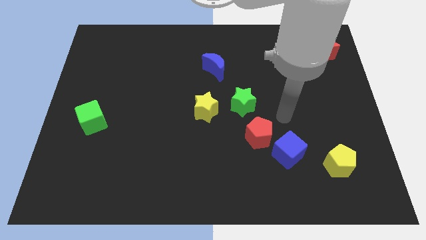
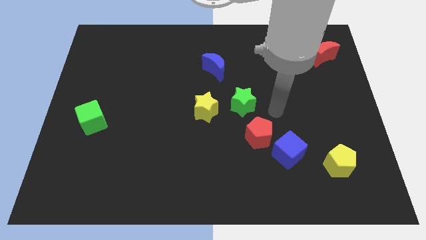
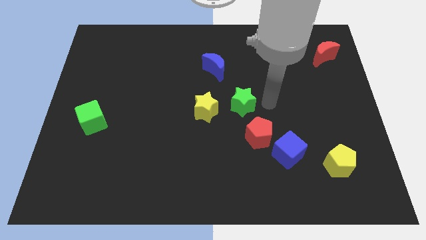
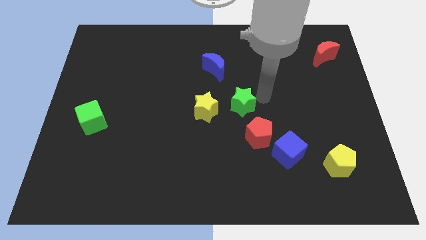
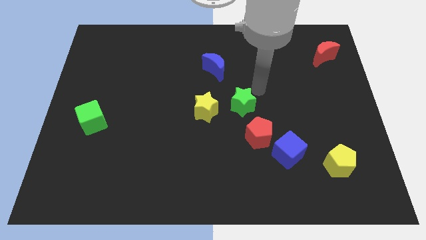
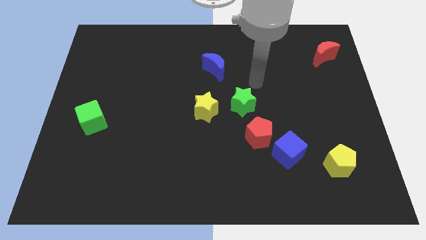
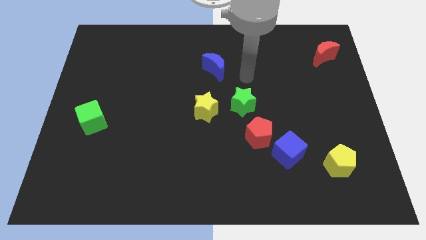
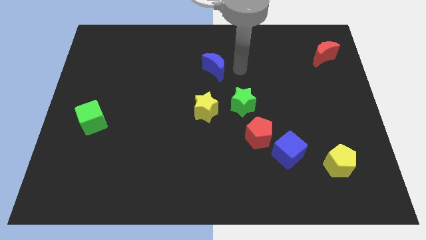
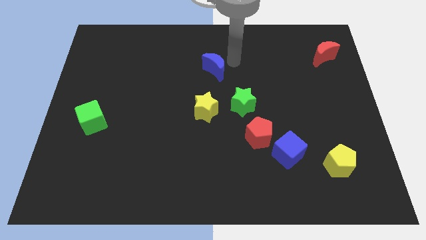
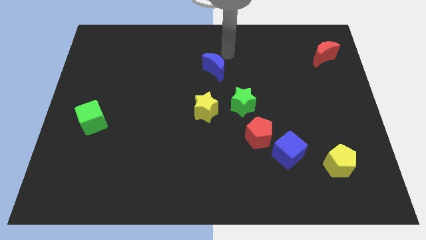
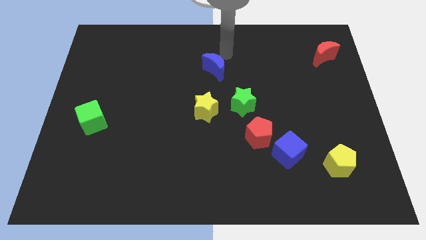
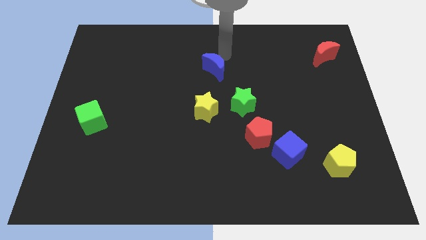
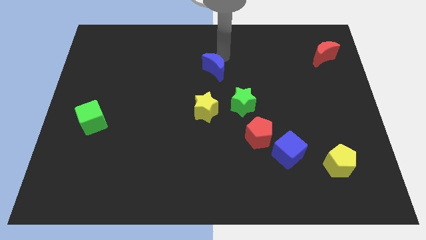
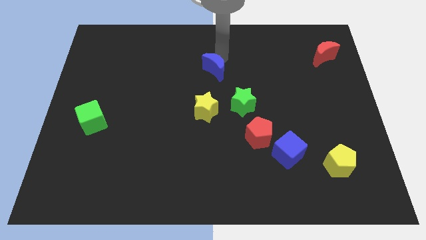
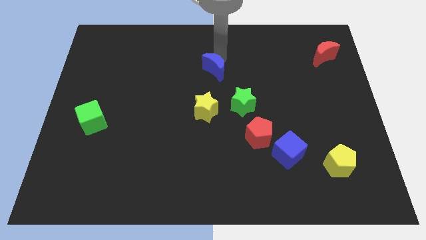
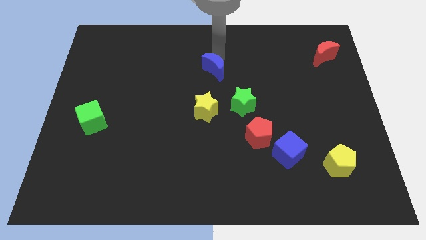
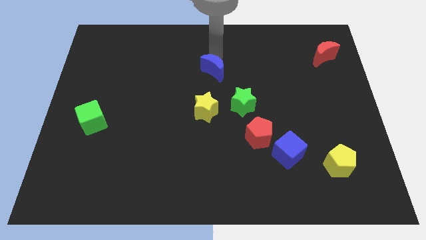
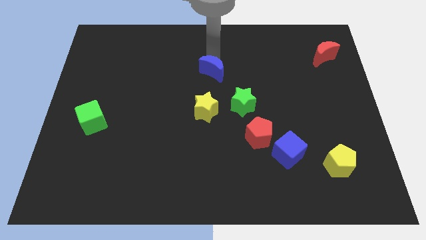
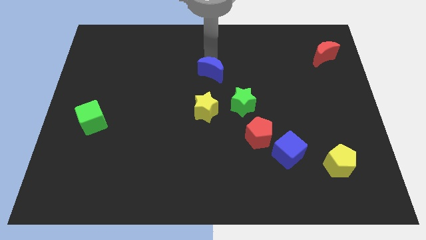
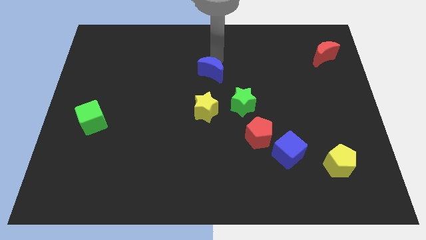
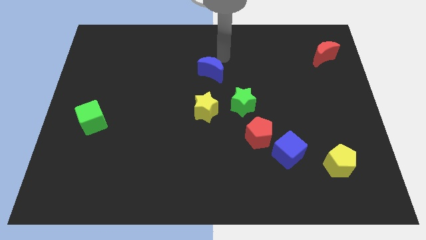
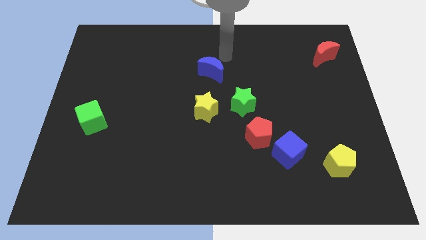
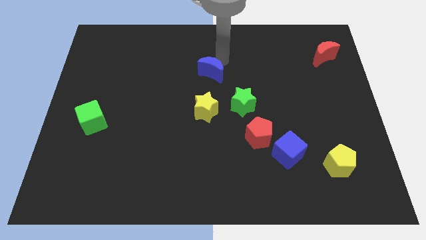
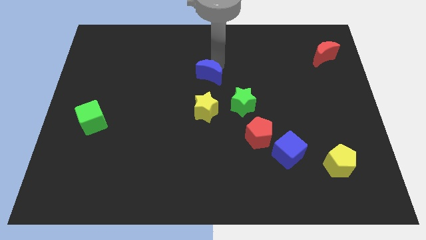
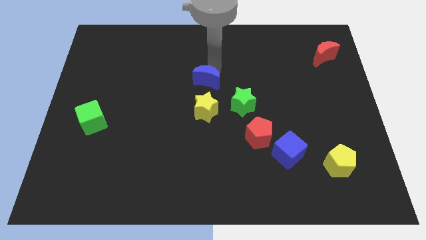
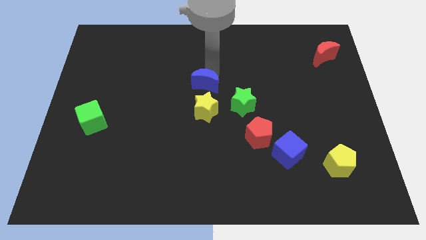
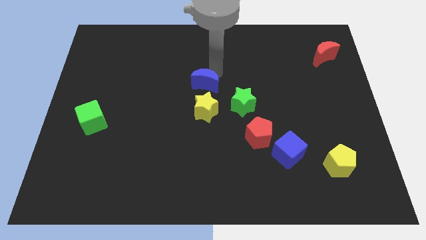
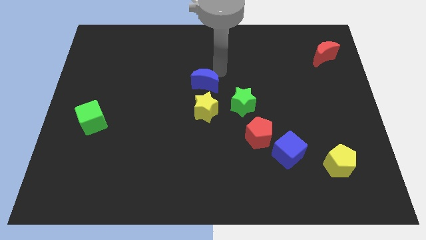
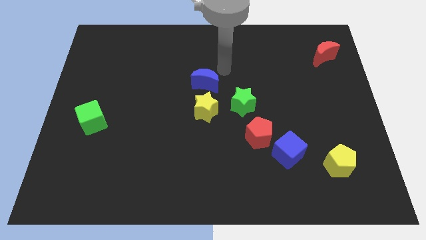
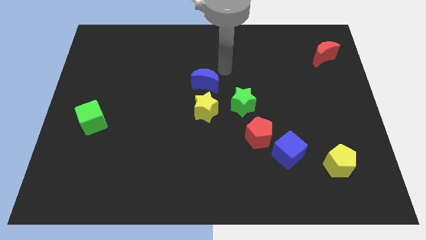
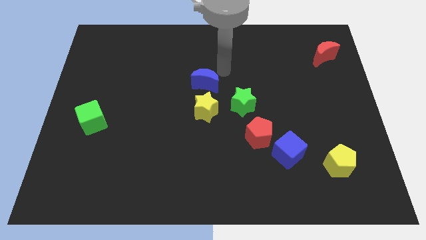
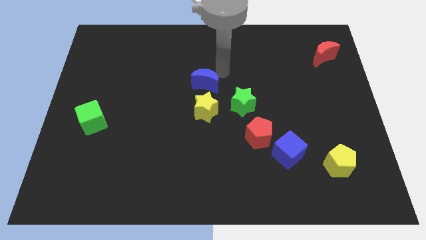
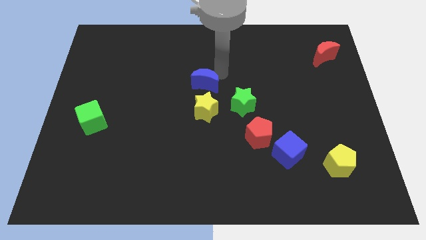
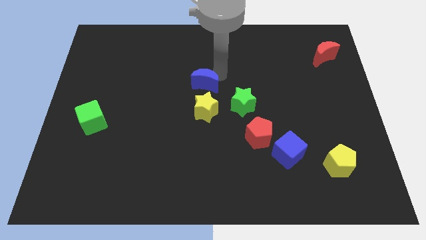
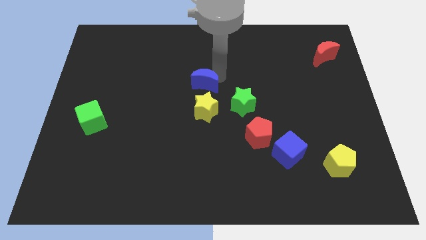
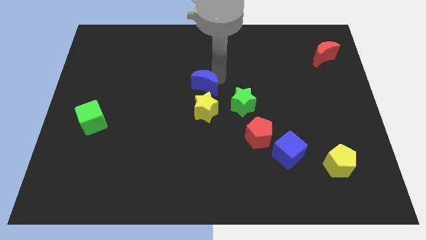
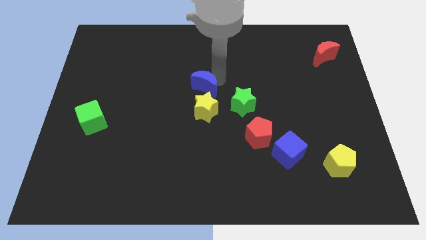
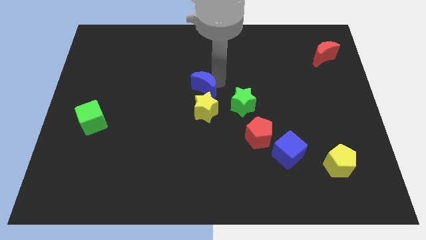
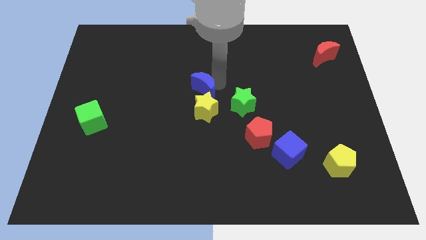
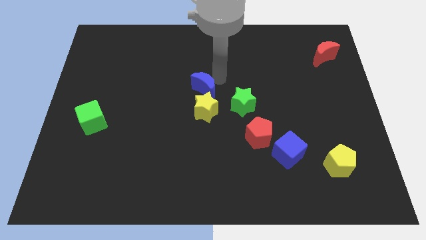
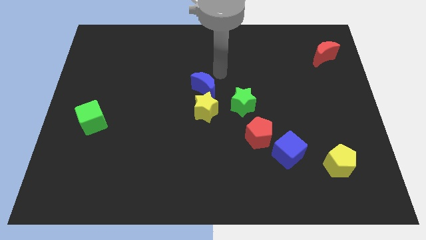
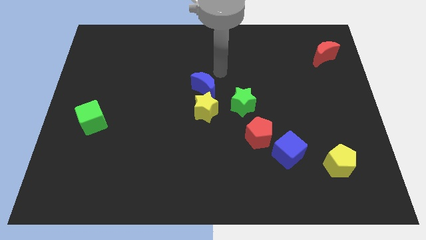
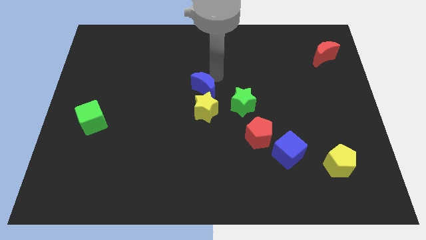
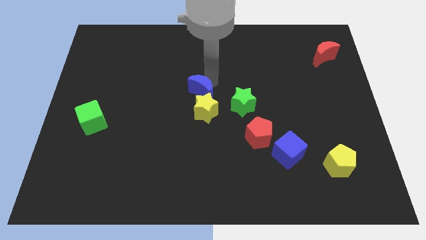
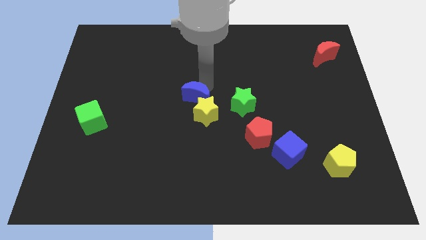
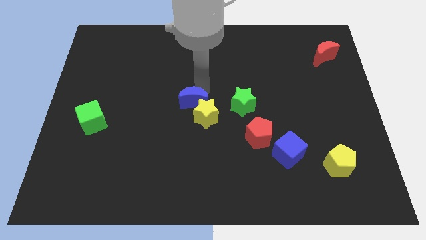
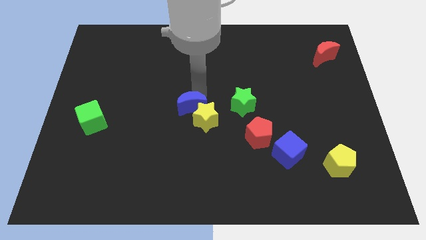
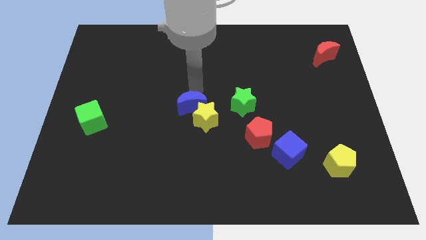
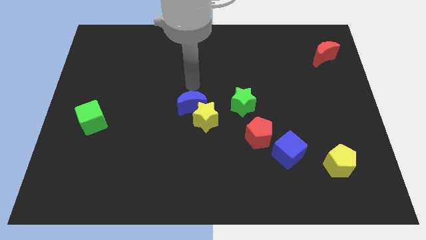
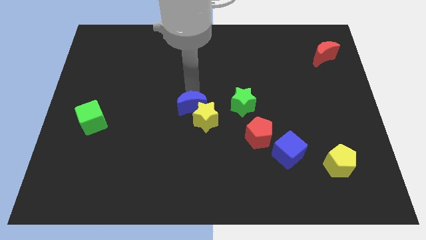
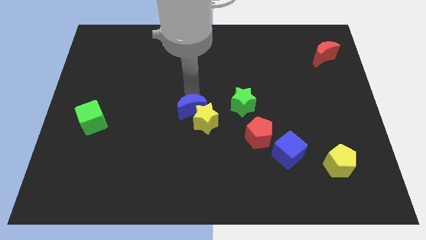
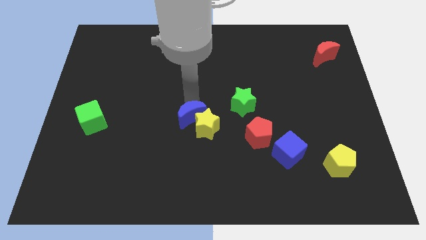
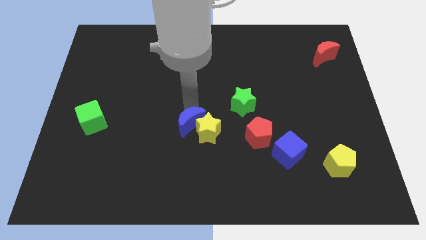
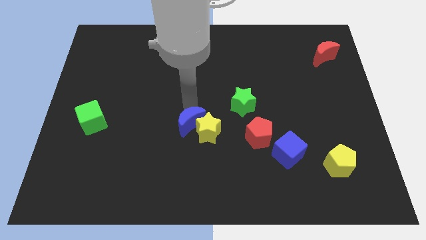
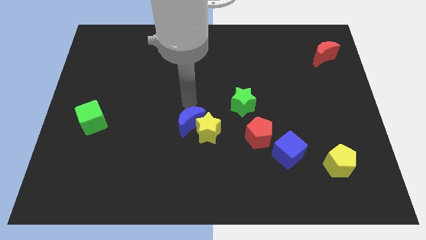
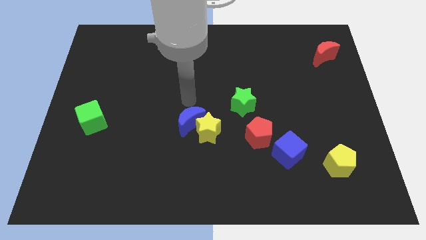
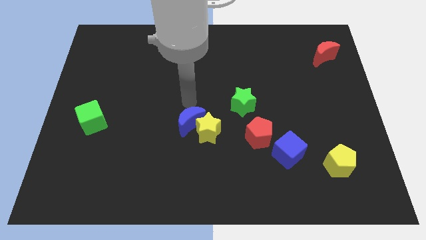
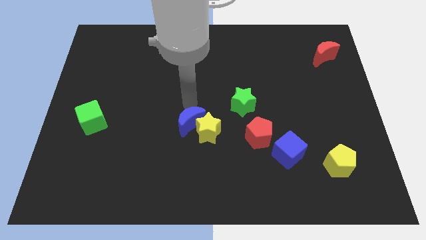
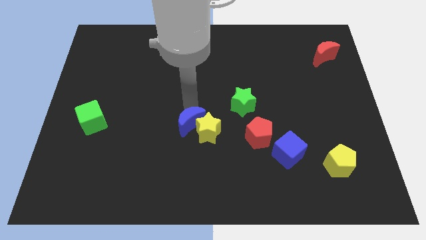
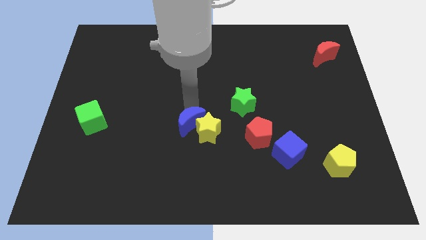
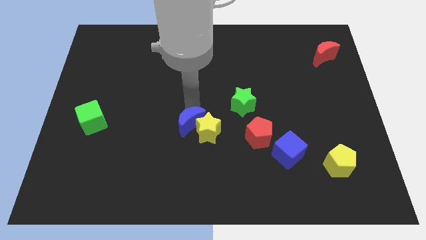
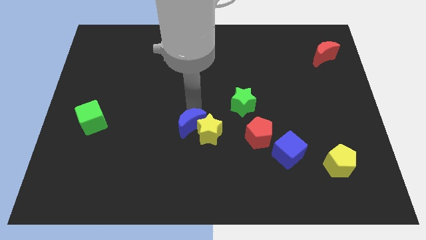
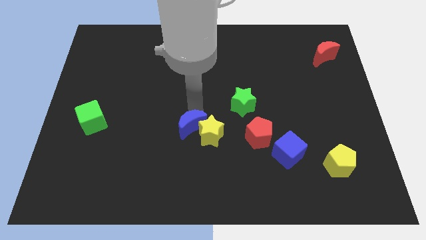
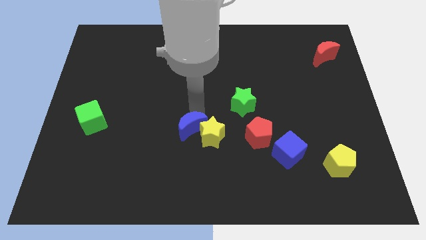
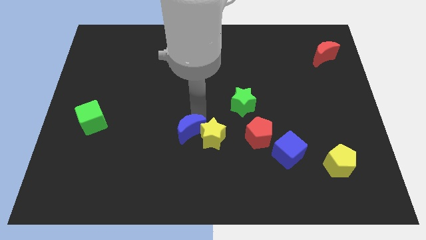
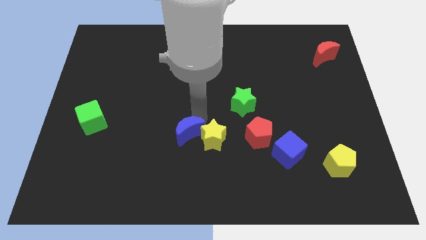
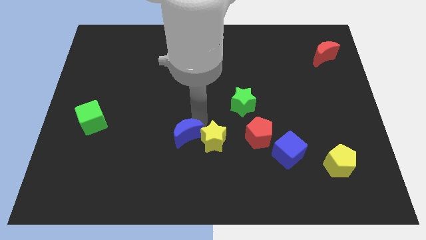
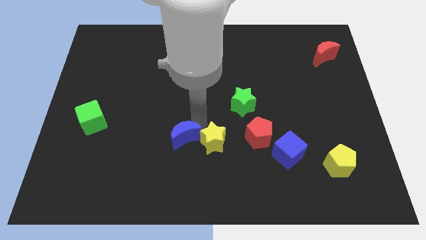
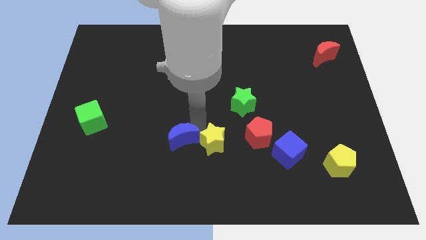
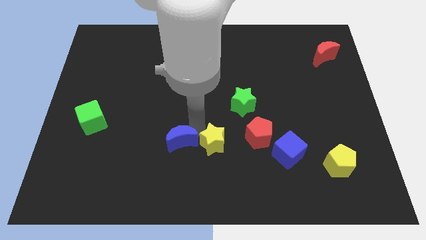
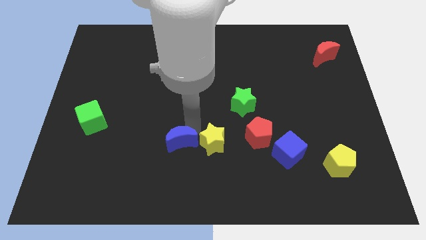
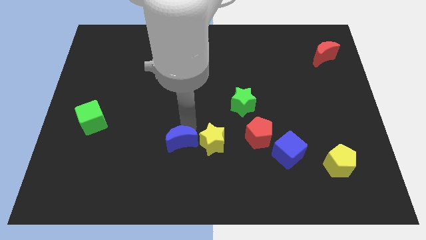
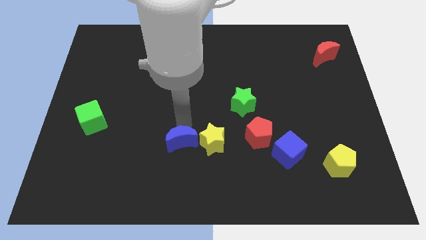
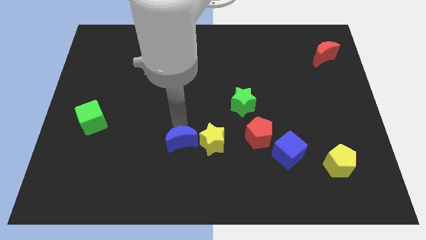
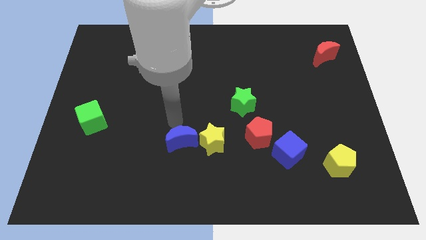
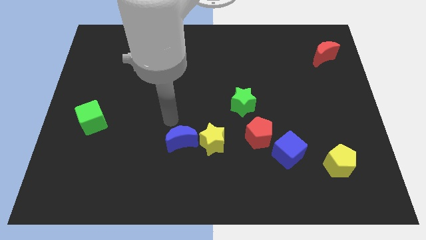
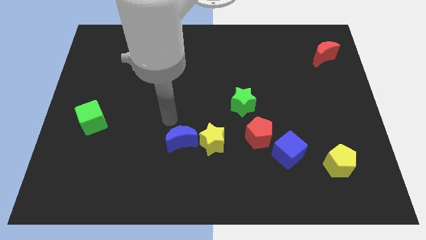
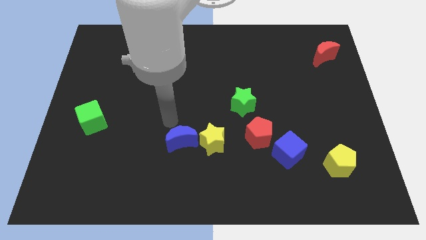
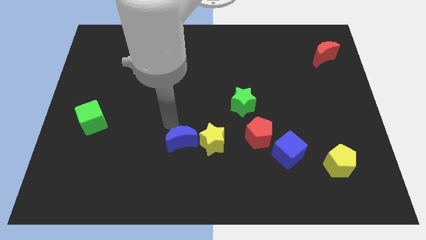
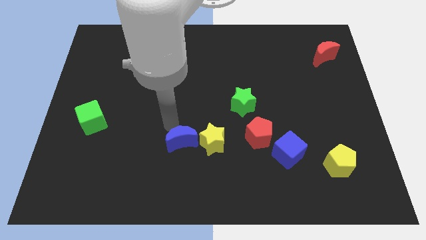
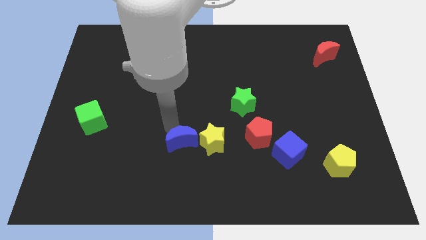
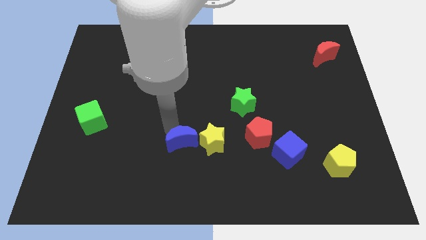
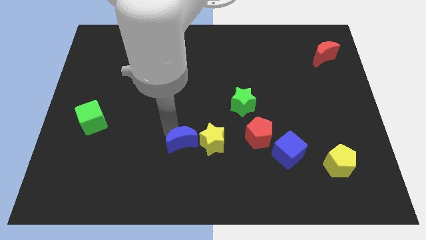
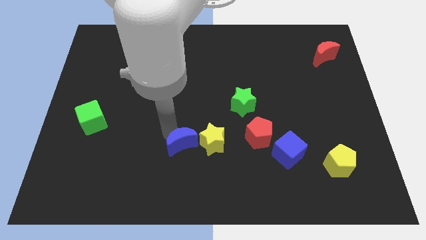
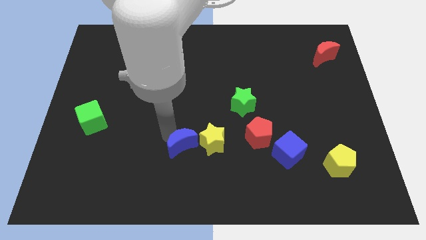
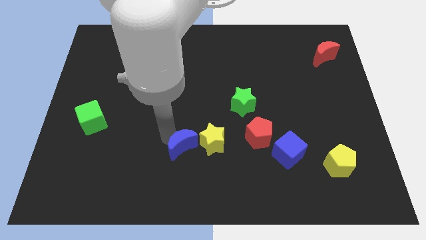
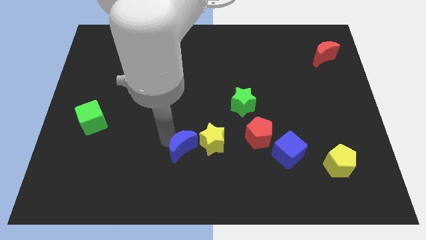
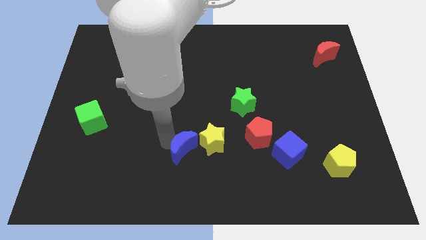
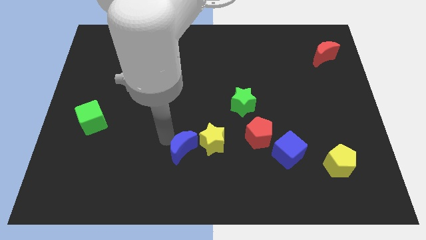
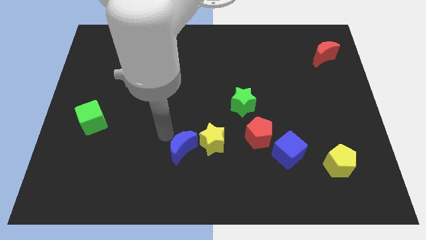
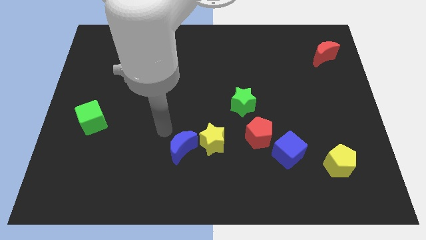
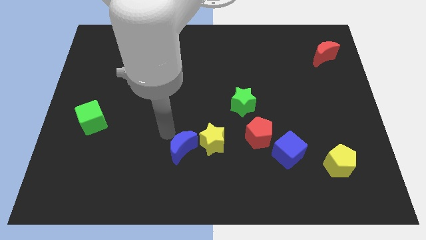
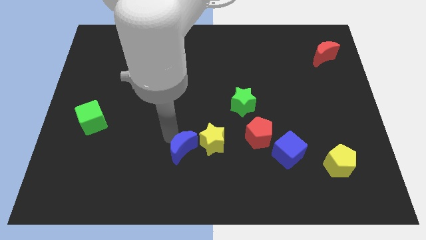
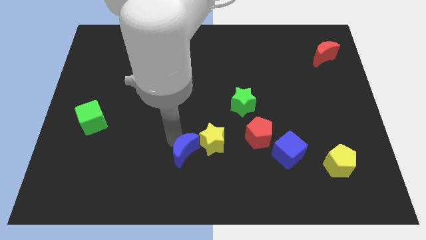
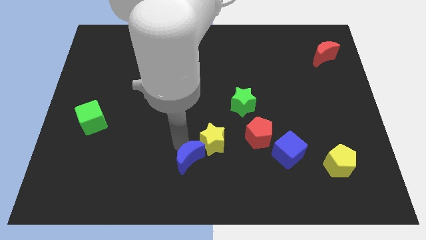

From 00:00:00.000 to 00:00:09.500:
put the blue moon to the bottom
